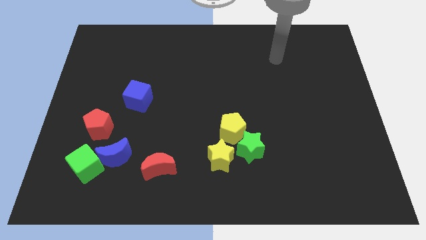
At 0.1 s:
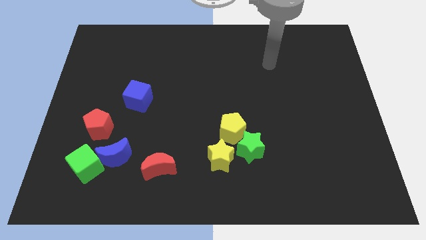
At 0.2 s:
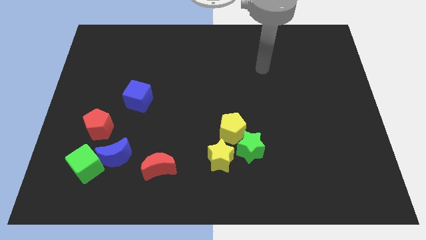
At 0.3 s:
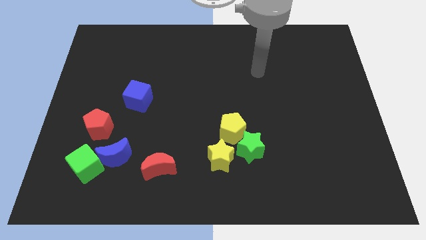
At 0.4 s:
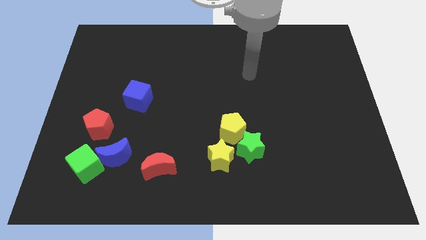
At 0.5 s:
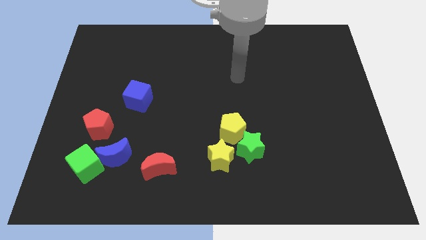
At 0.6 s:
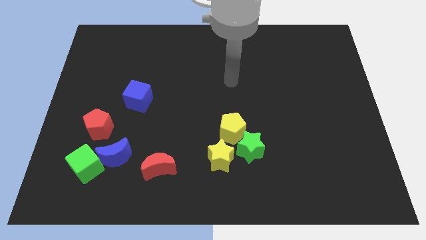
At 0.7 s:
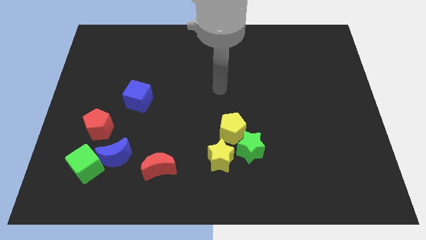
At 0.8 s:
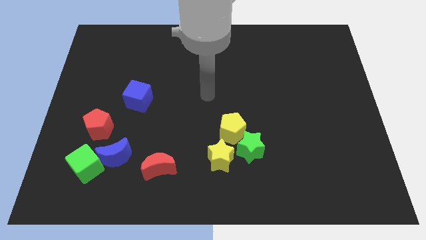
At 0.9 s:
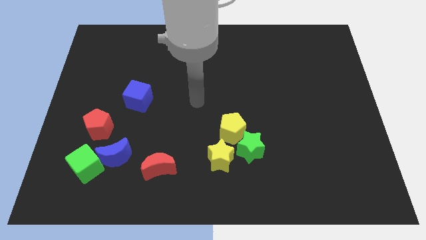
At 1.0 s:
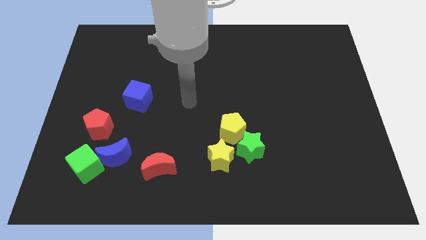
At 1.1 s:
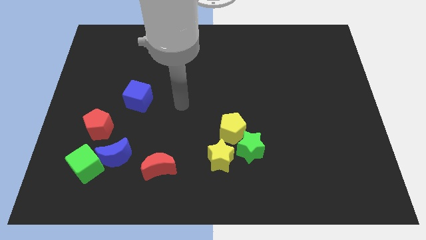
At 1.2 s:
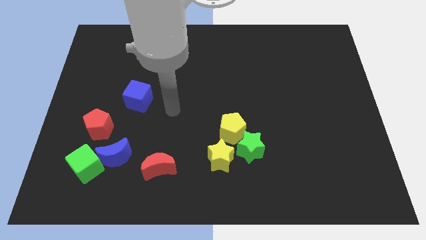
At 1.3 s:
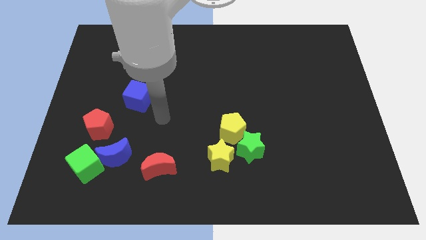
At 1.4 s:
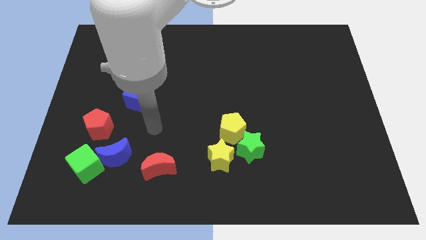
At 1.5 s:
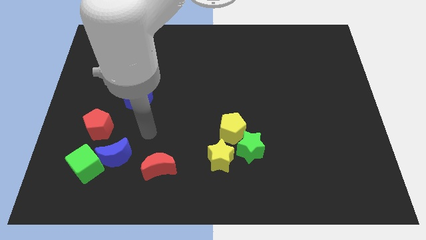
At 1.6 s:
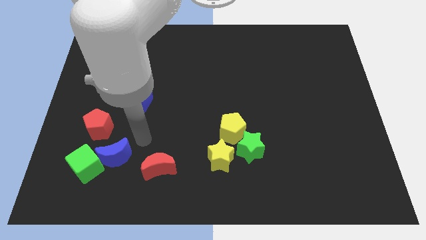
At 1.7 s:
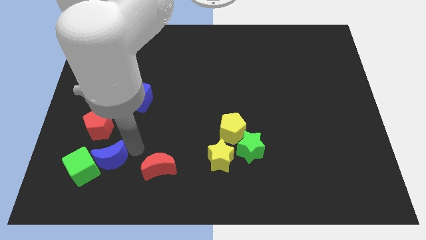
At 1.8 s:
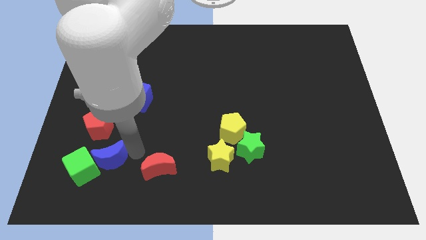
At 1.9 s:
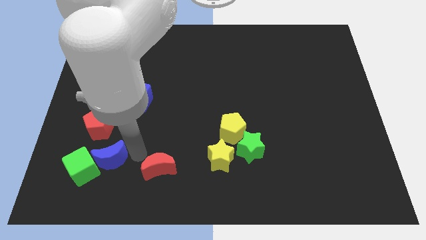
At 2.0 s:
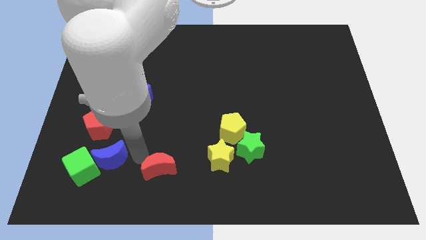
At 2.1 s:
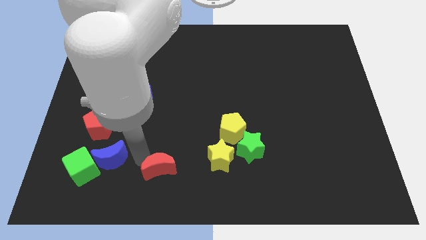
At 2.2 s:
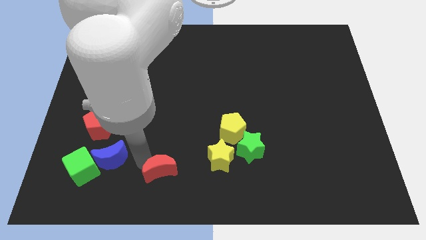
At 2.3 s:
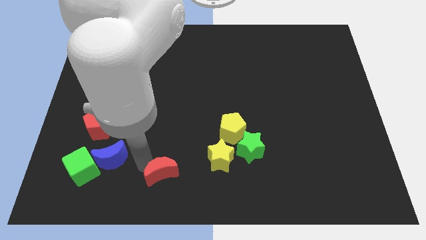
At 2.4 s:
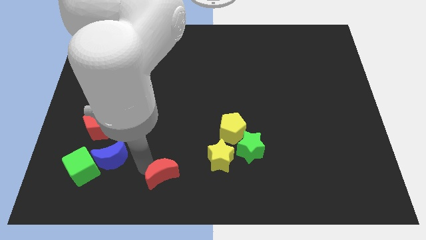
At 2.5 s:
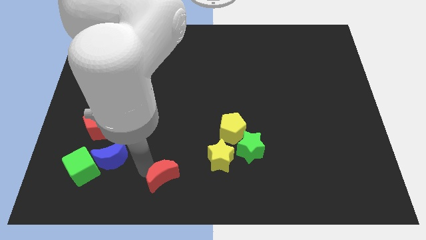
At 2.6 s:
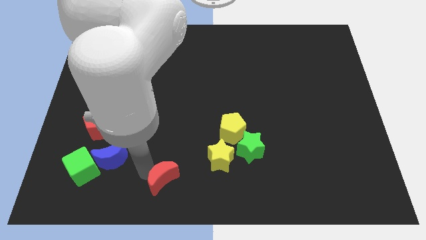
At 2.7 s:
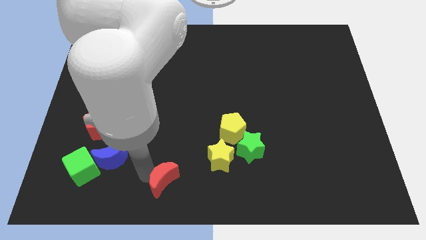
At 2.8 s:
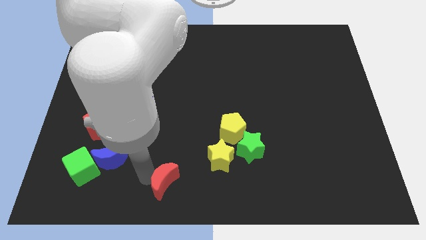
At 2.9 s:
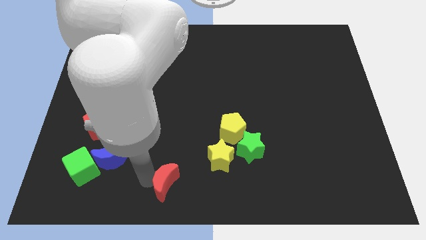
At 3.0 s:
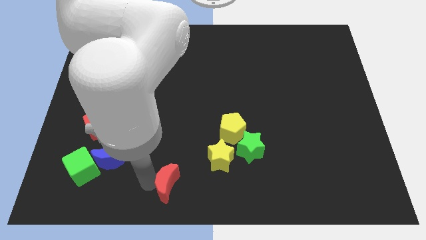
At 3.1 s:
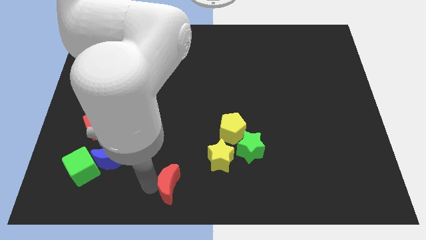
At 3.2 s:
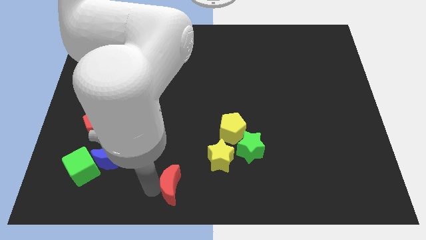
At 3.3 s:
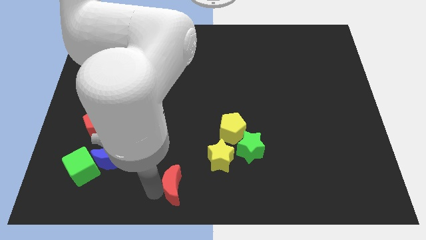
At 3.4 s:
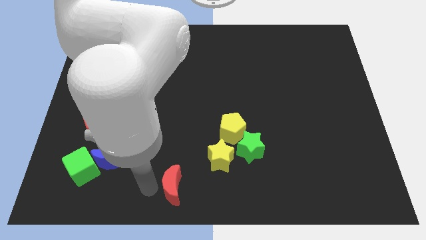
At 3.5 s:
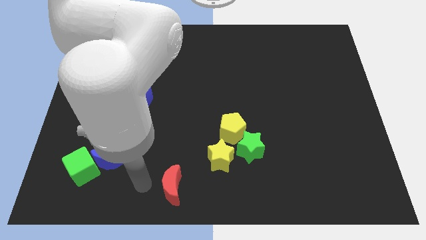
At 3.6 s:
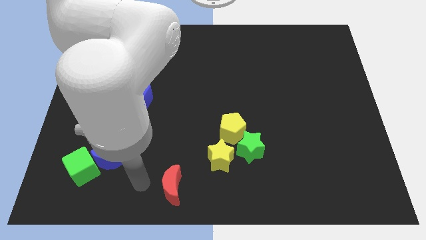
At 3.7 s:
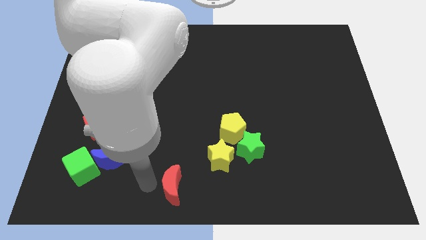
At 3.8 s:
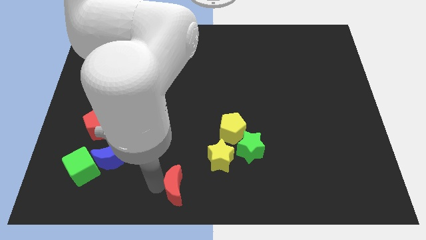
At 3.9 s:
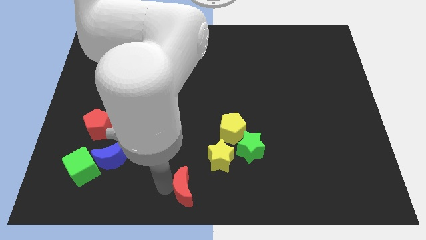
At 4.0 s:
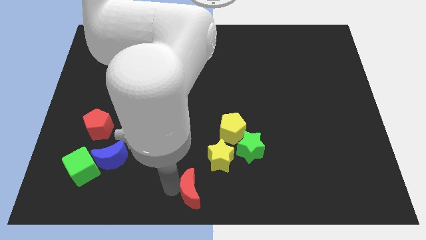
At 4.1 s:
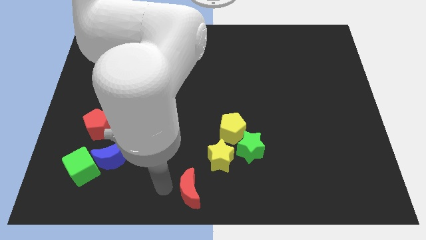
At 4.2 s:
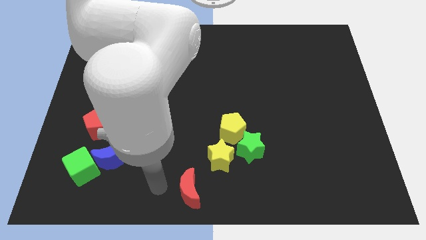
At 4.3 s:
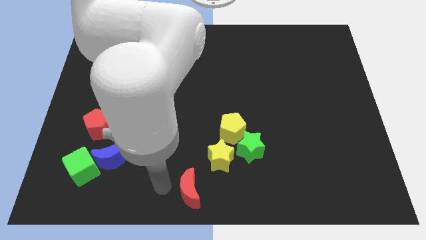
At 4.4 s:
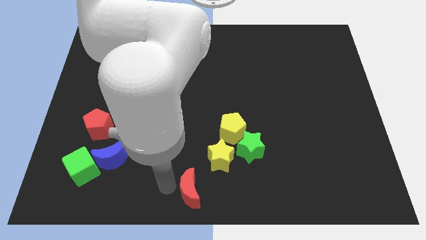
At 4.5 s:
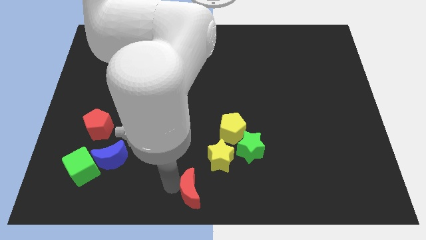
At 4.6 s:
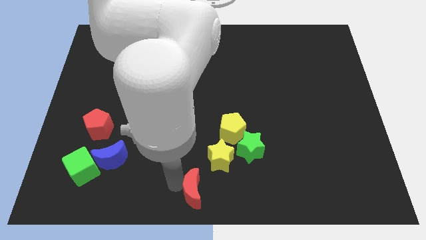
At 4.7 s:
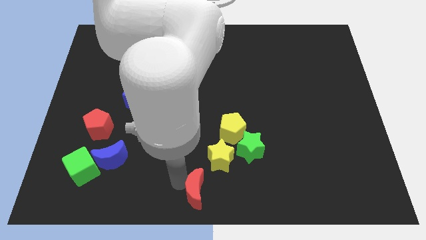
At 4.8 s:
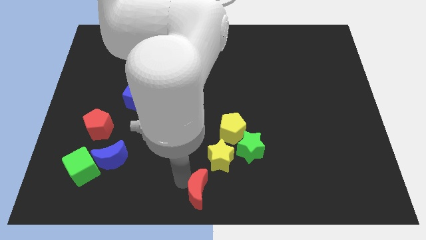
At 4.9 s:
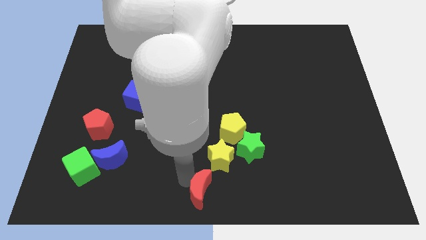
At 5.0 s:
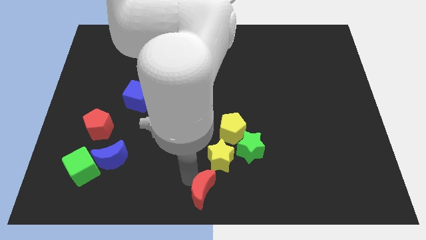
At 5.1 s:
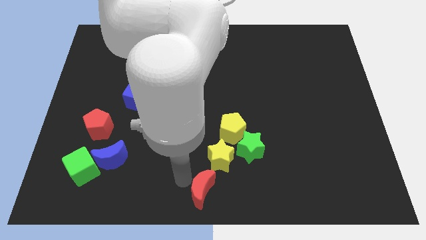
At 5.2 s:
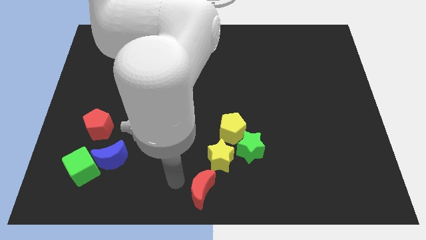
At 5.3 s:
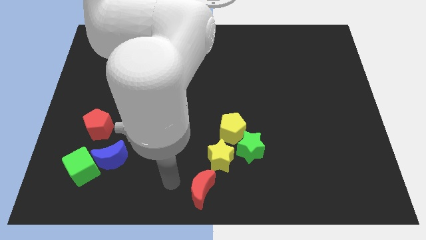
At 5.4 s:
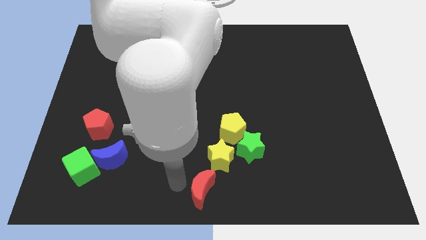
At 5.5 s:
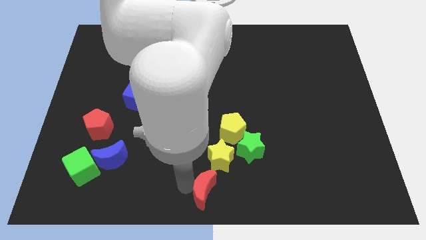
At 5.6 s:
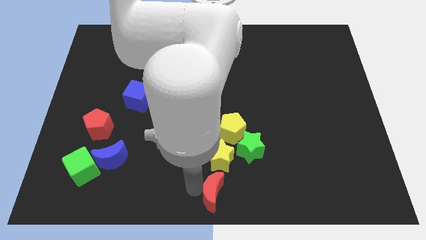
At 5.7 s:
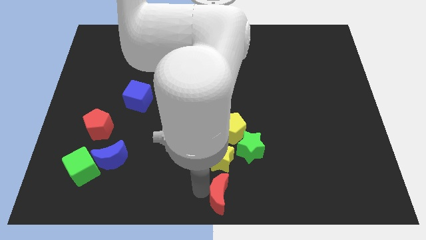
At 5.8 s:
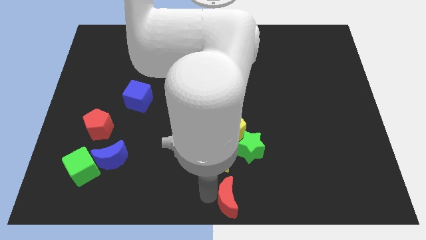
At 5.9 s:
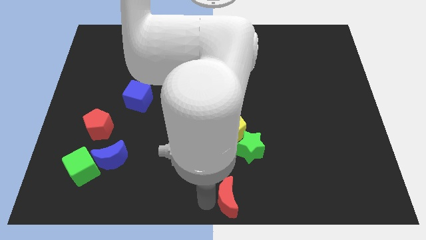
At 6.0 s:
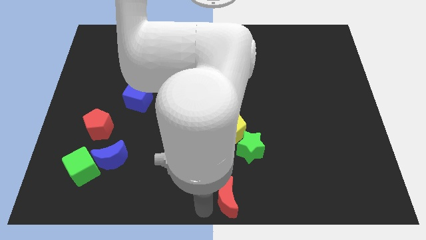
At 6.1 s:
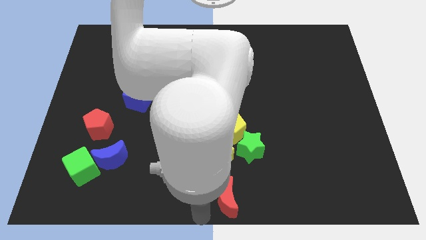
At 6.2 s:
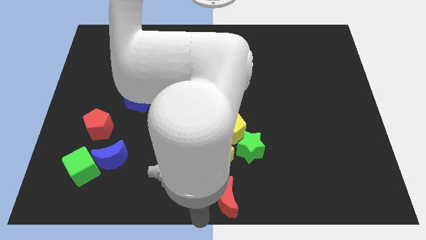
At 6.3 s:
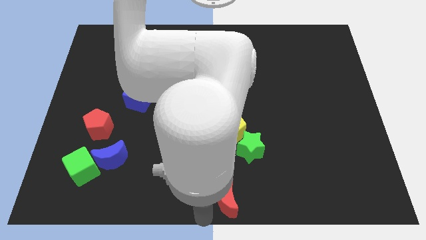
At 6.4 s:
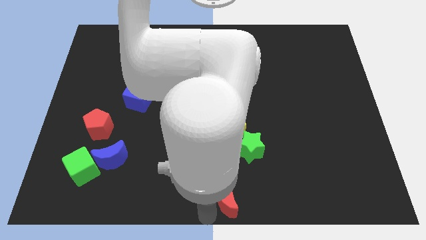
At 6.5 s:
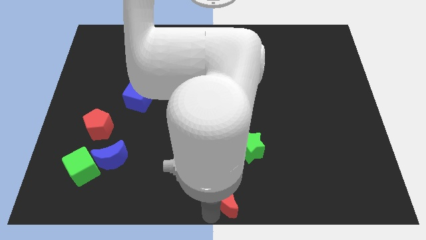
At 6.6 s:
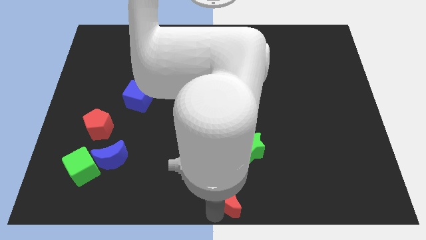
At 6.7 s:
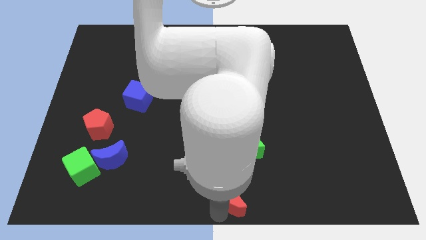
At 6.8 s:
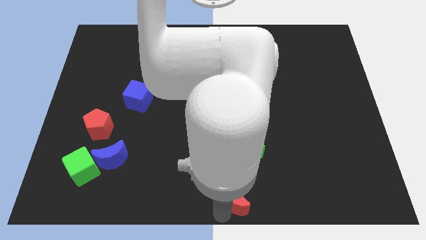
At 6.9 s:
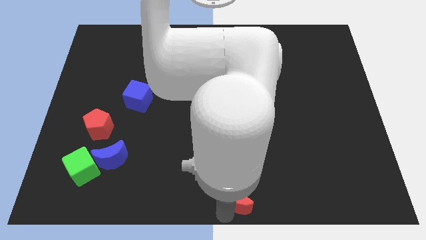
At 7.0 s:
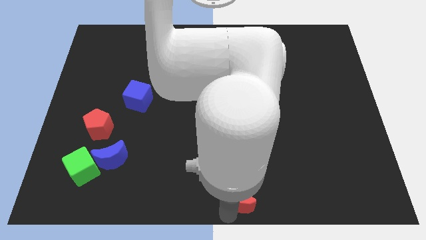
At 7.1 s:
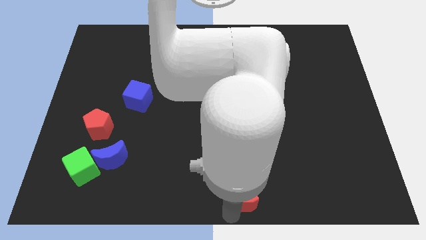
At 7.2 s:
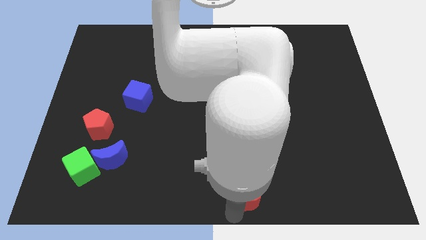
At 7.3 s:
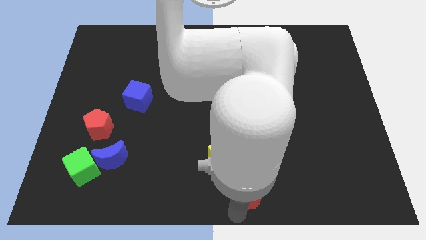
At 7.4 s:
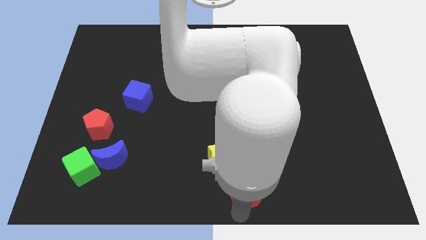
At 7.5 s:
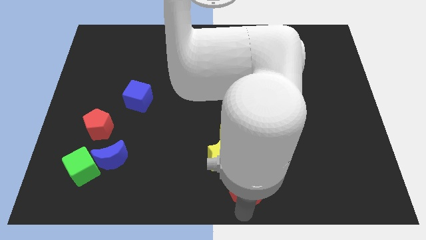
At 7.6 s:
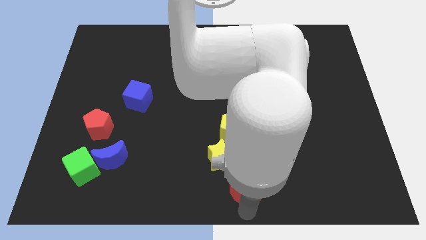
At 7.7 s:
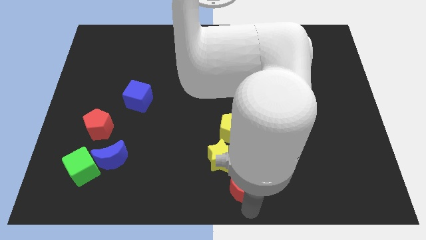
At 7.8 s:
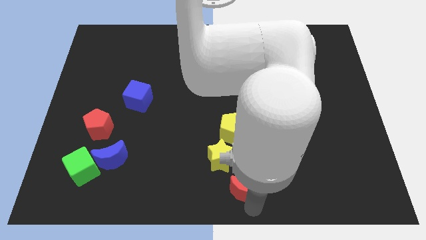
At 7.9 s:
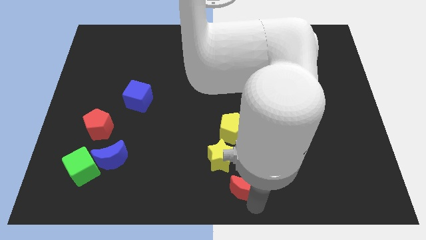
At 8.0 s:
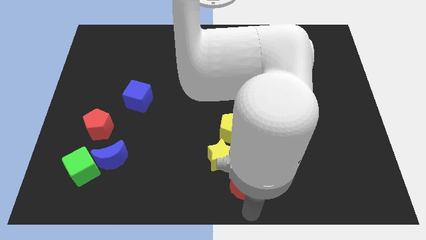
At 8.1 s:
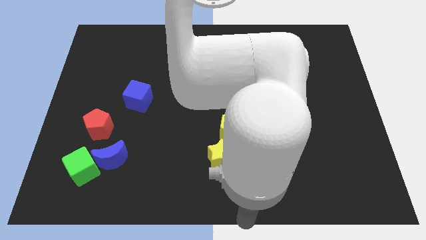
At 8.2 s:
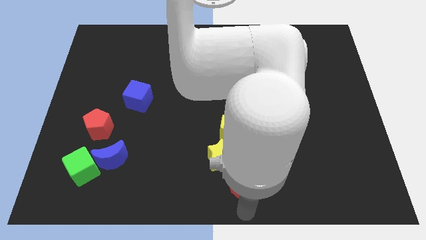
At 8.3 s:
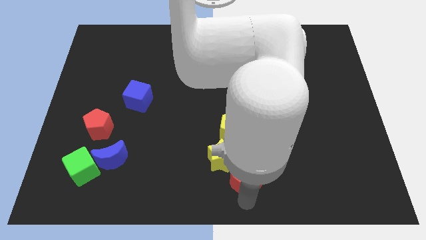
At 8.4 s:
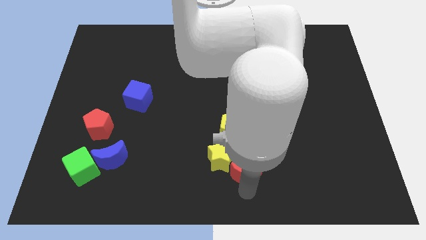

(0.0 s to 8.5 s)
slide the red moon next to the green star
